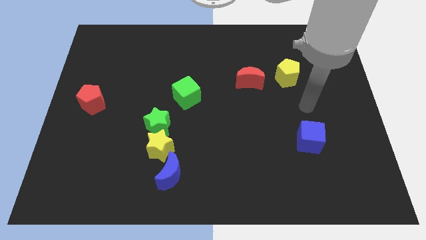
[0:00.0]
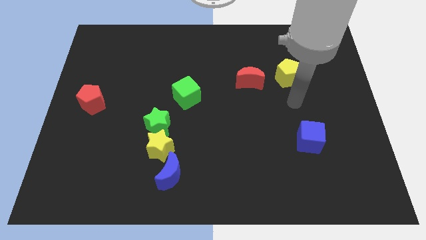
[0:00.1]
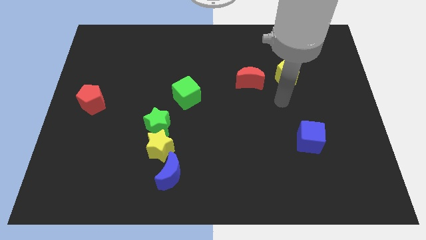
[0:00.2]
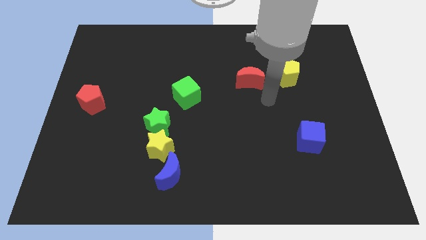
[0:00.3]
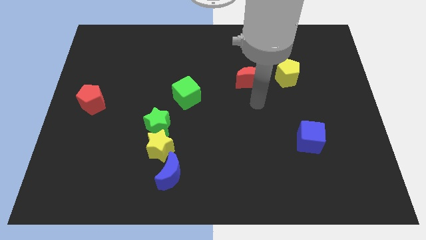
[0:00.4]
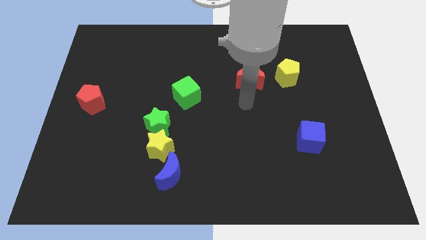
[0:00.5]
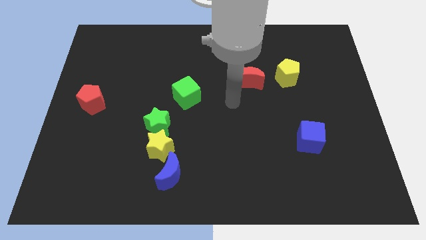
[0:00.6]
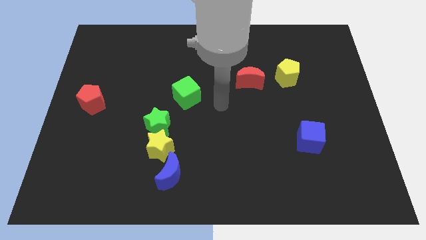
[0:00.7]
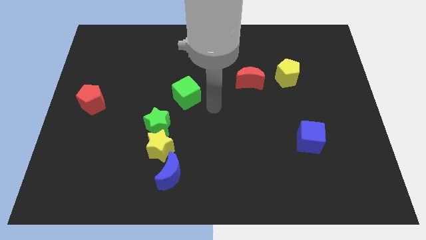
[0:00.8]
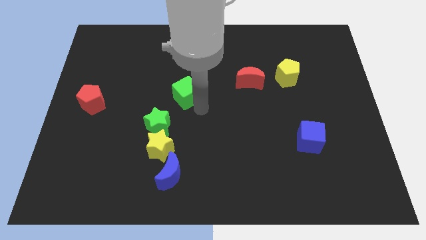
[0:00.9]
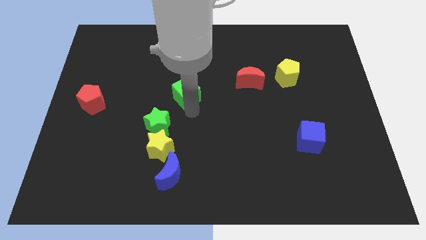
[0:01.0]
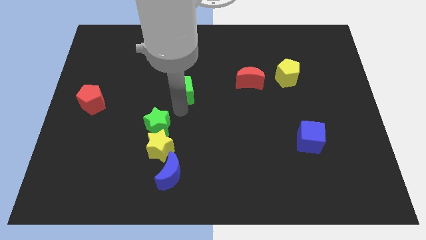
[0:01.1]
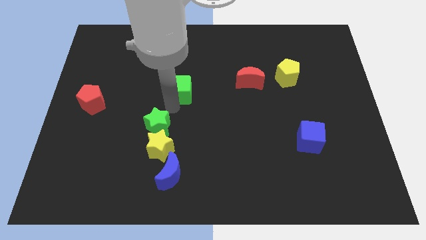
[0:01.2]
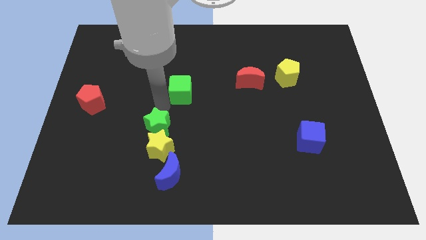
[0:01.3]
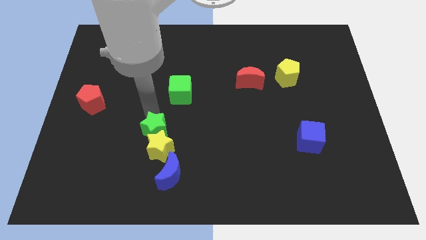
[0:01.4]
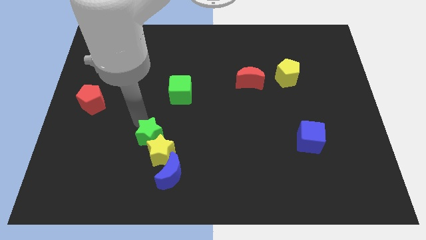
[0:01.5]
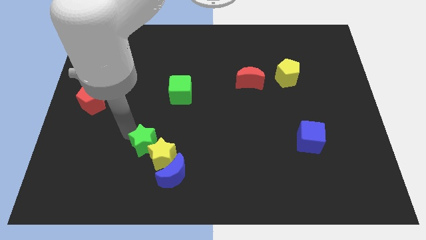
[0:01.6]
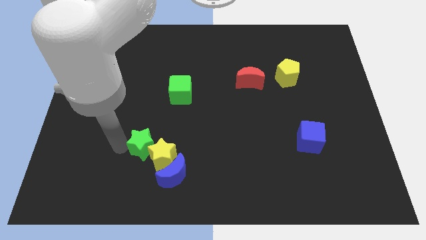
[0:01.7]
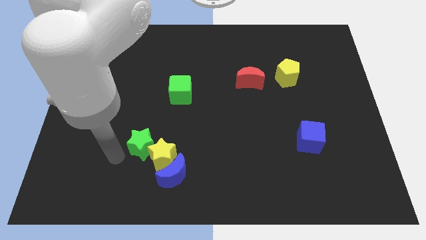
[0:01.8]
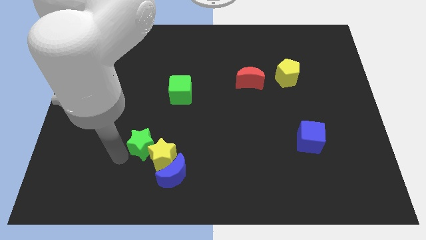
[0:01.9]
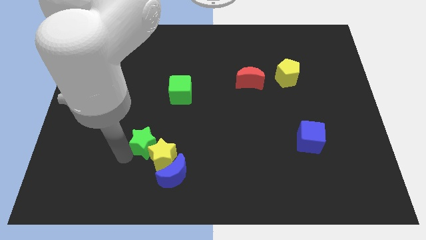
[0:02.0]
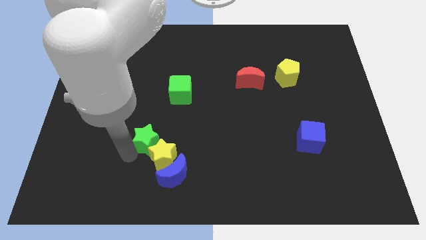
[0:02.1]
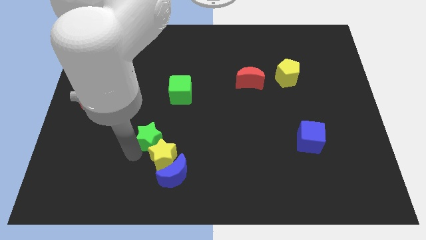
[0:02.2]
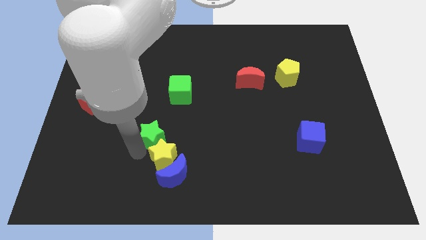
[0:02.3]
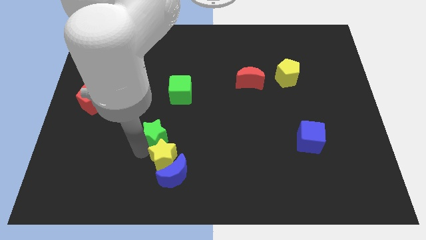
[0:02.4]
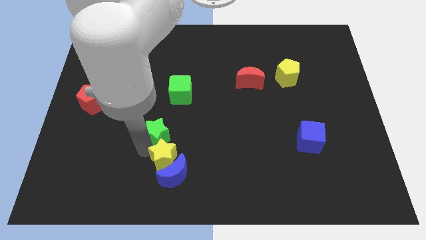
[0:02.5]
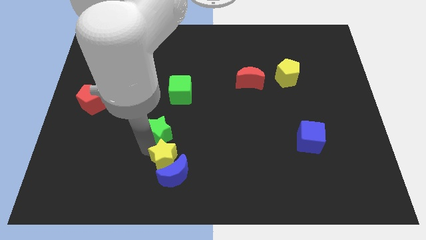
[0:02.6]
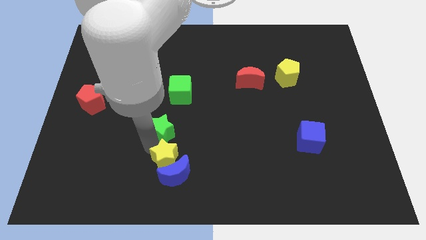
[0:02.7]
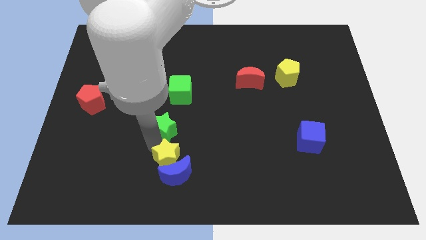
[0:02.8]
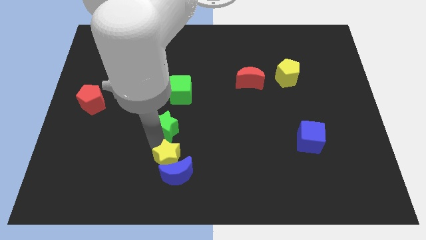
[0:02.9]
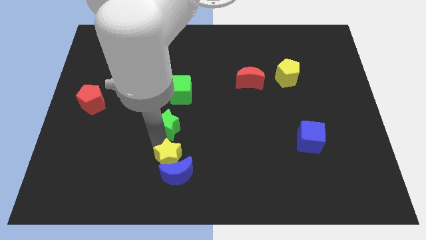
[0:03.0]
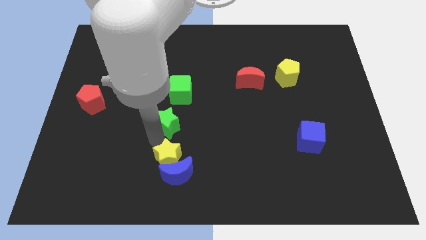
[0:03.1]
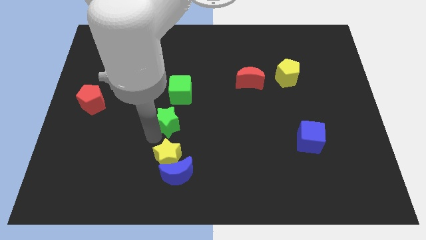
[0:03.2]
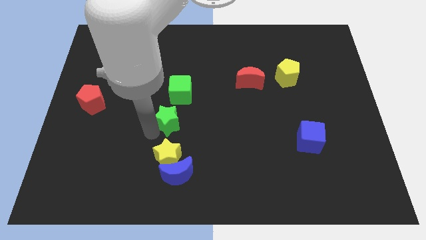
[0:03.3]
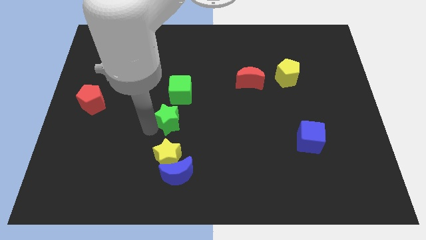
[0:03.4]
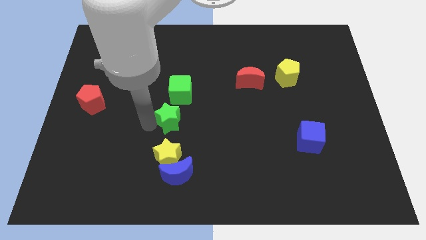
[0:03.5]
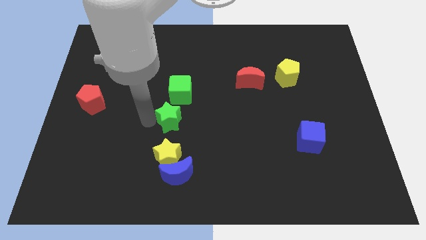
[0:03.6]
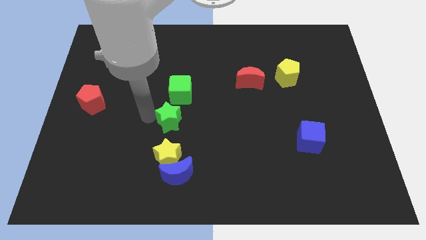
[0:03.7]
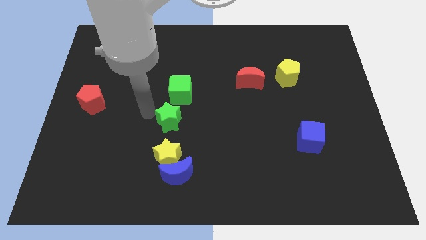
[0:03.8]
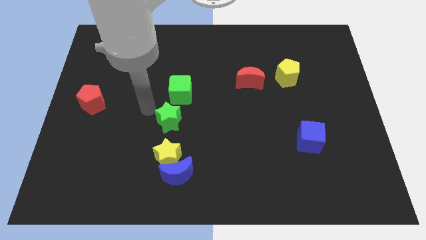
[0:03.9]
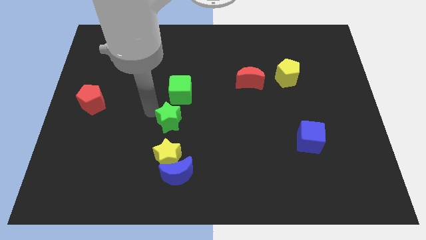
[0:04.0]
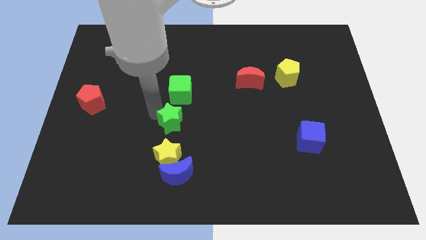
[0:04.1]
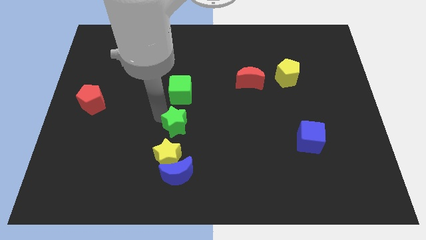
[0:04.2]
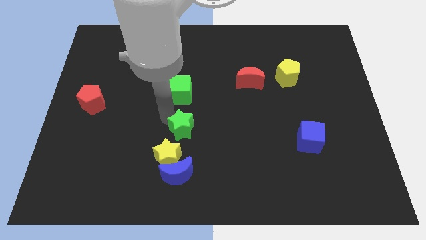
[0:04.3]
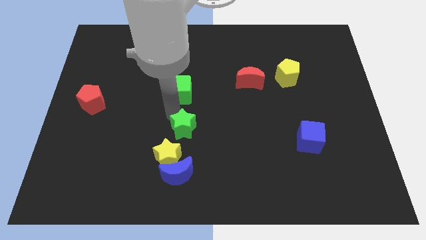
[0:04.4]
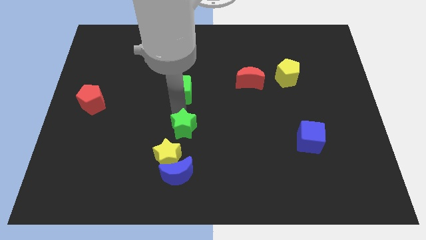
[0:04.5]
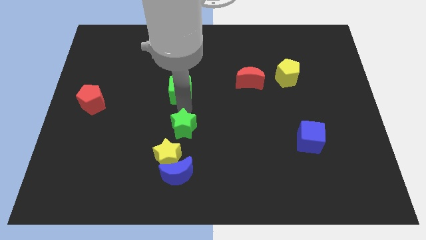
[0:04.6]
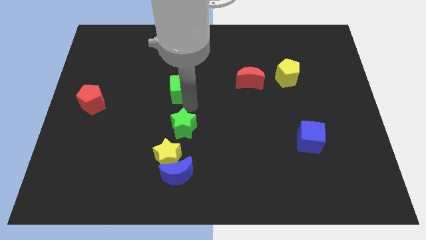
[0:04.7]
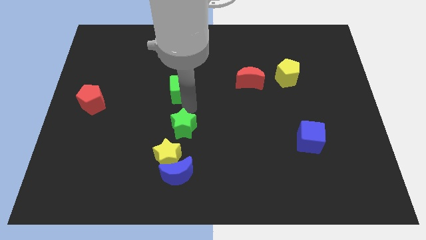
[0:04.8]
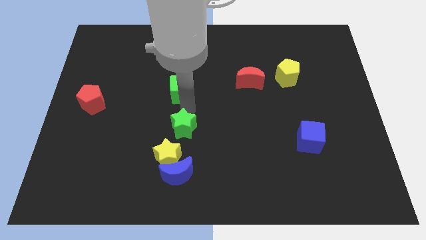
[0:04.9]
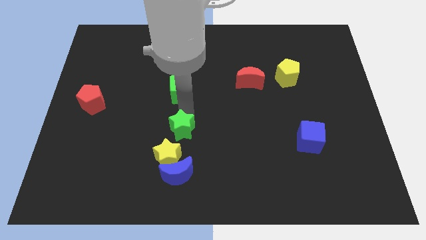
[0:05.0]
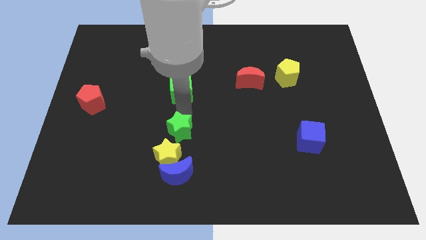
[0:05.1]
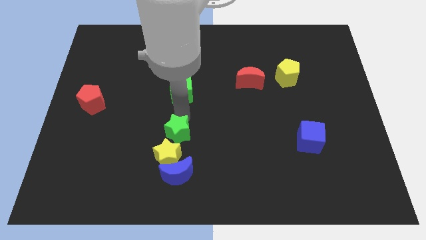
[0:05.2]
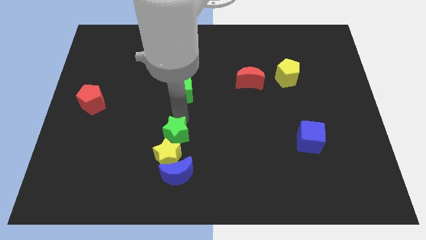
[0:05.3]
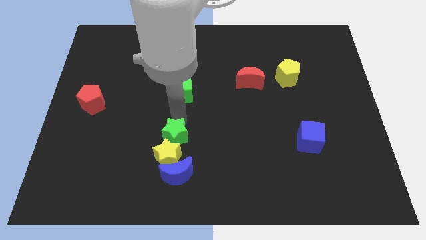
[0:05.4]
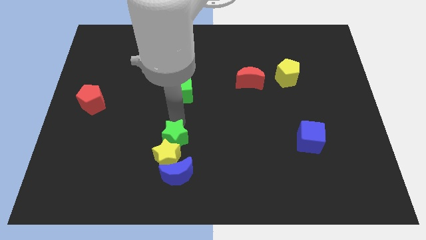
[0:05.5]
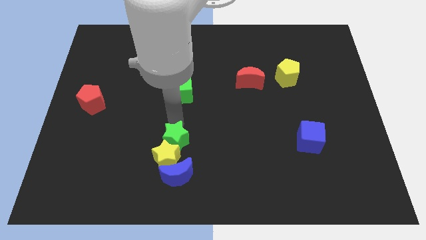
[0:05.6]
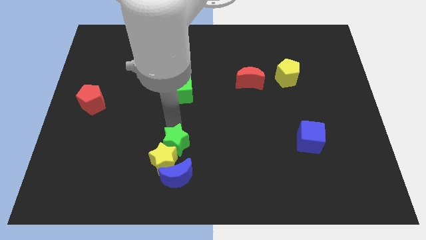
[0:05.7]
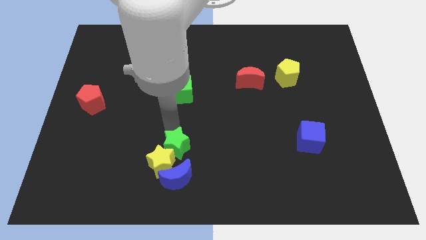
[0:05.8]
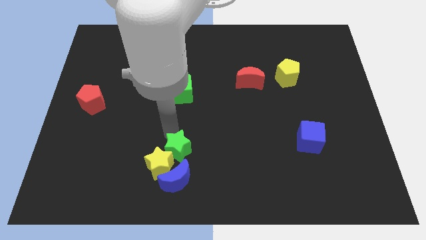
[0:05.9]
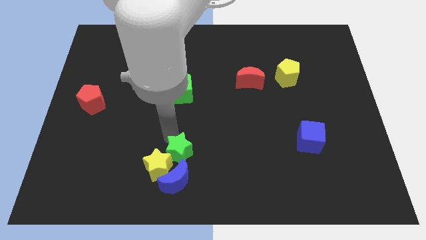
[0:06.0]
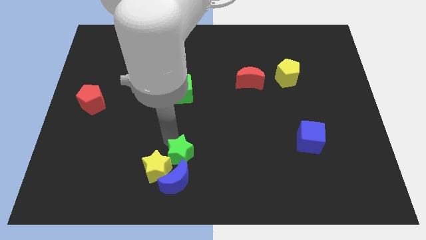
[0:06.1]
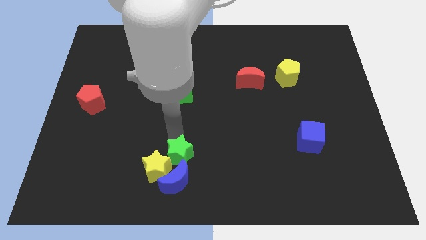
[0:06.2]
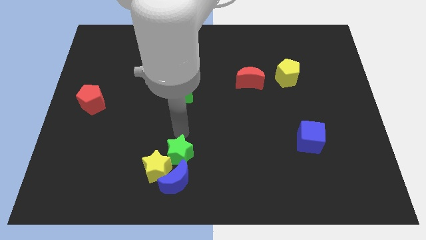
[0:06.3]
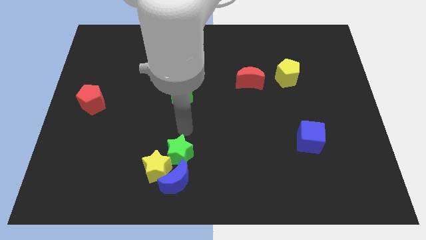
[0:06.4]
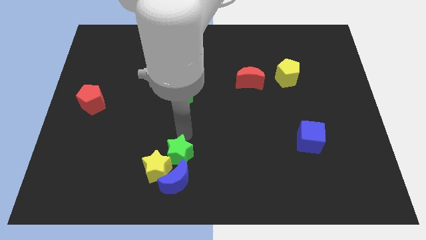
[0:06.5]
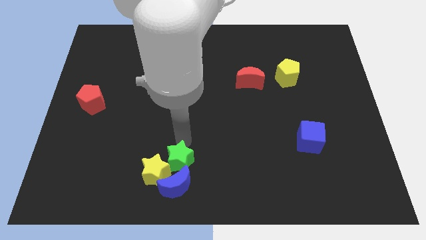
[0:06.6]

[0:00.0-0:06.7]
slide the green star next to the blue moon

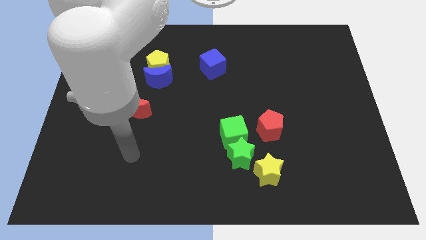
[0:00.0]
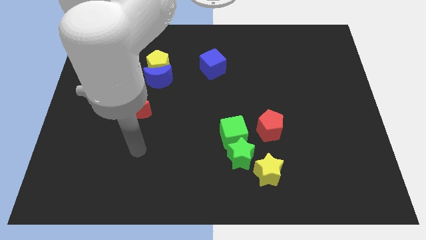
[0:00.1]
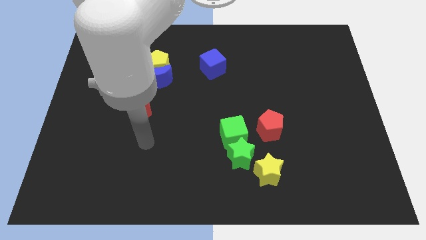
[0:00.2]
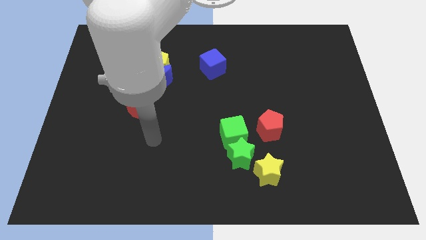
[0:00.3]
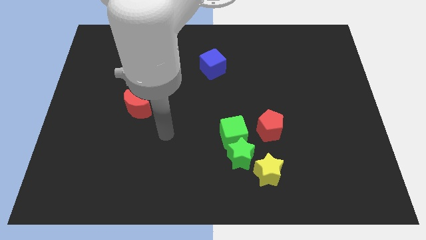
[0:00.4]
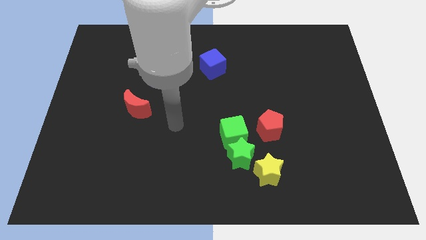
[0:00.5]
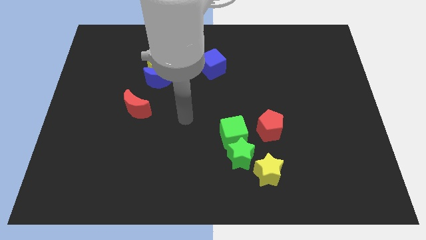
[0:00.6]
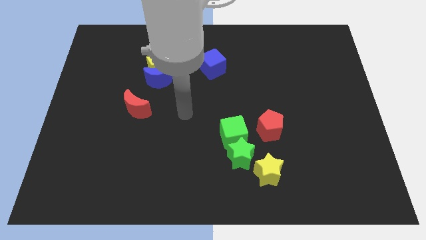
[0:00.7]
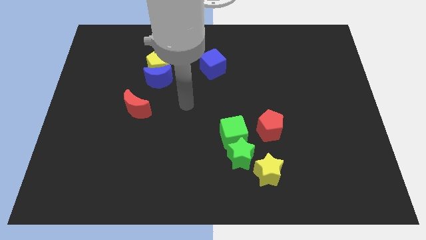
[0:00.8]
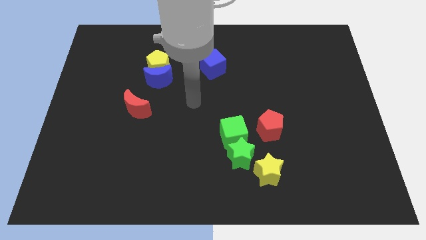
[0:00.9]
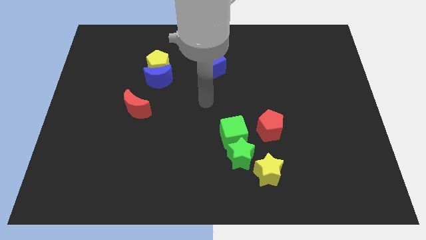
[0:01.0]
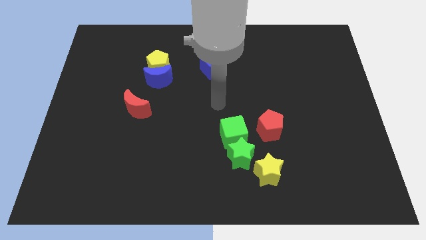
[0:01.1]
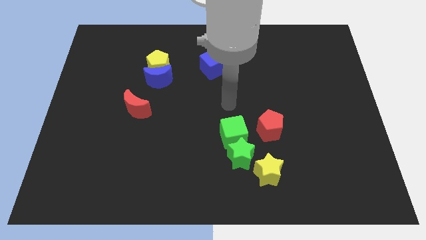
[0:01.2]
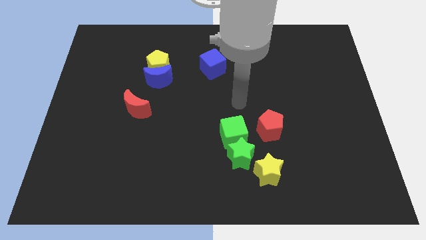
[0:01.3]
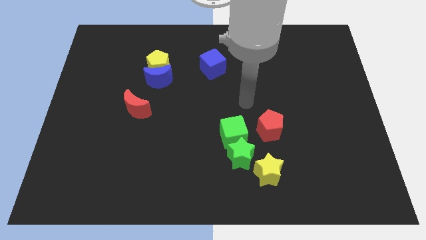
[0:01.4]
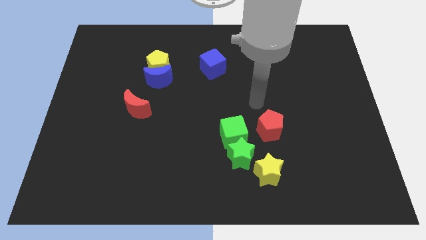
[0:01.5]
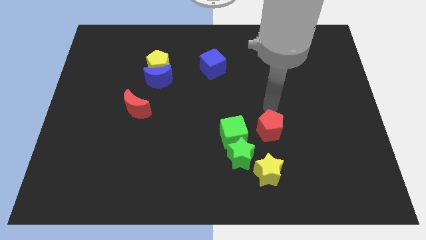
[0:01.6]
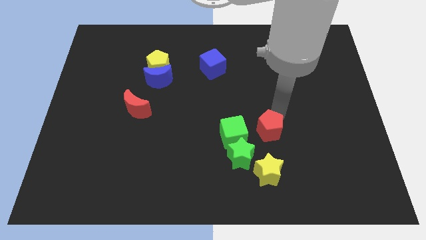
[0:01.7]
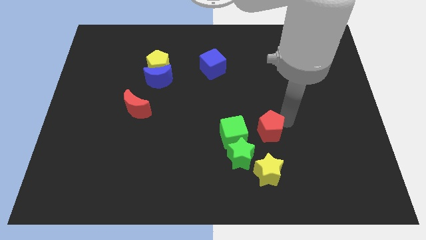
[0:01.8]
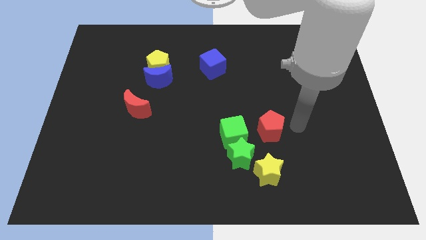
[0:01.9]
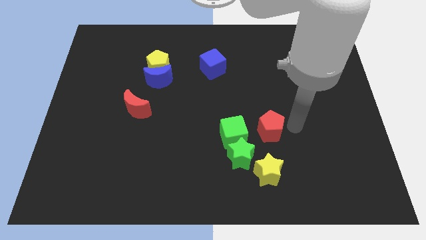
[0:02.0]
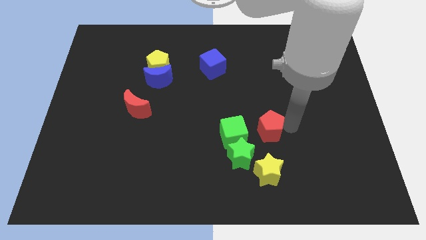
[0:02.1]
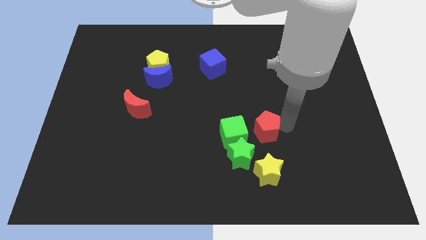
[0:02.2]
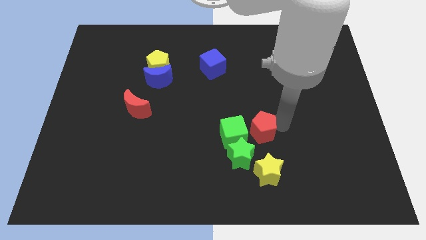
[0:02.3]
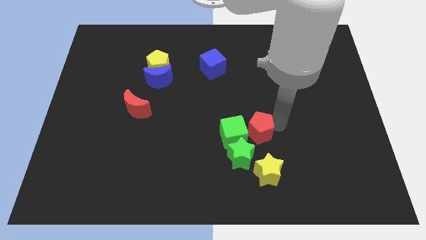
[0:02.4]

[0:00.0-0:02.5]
slide the red pentagon to the green cube
